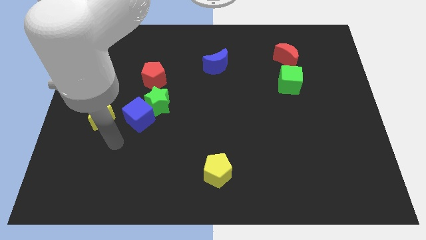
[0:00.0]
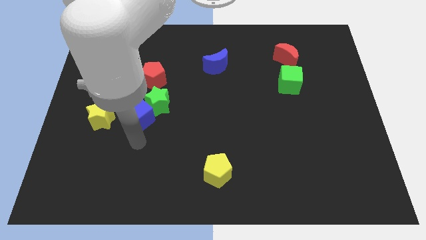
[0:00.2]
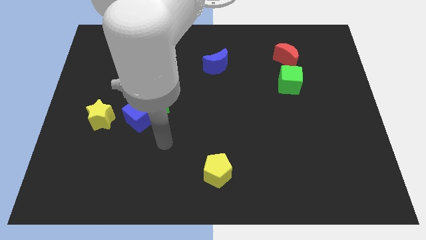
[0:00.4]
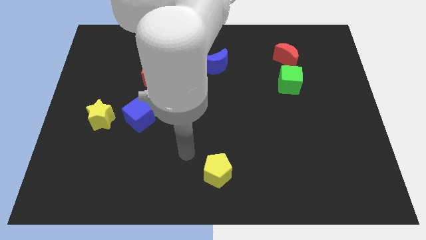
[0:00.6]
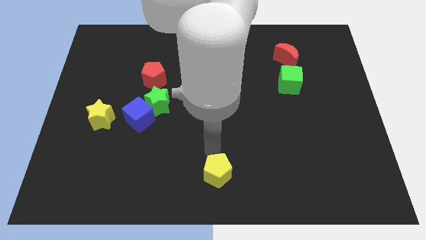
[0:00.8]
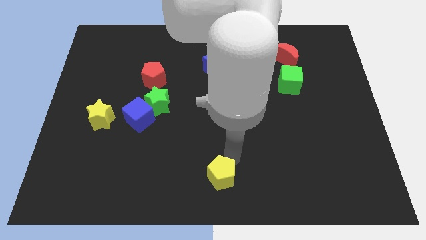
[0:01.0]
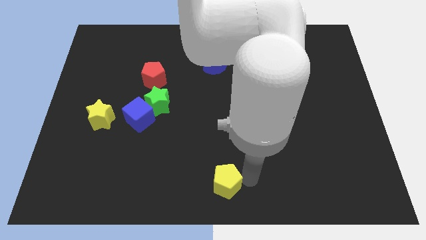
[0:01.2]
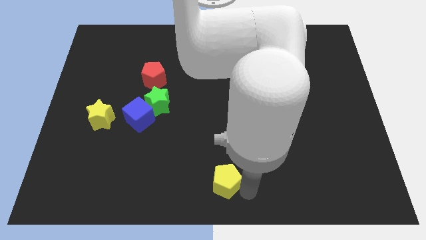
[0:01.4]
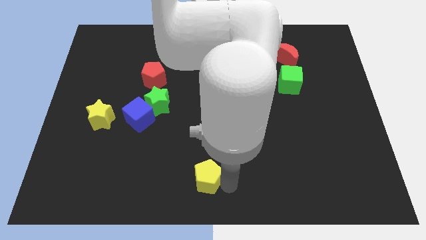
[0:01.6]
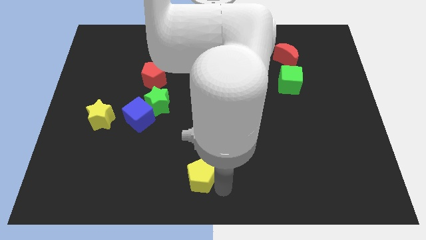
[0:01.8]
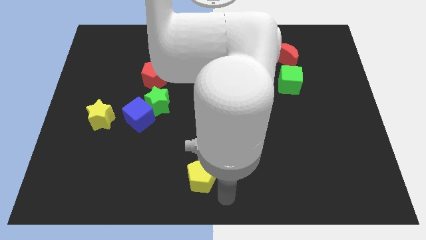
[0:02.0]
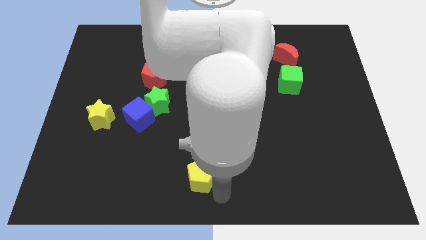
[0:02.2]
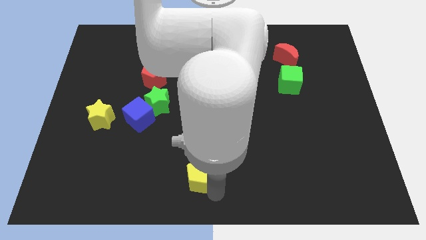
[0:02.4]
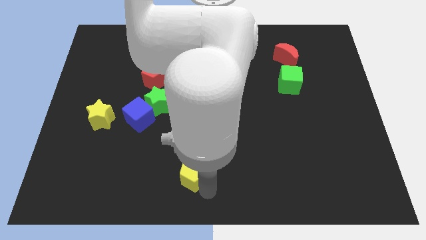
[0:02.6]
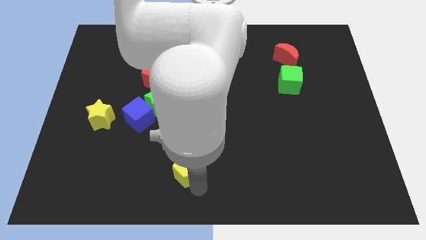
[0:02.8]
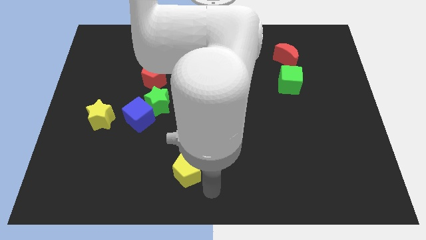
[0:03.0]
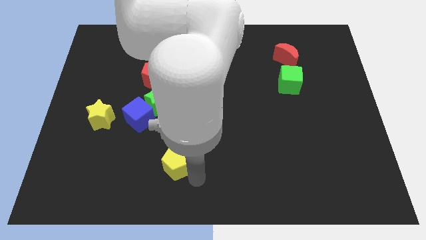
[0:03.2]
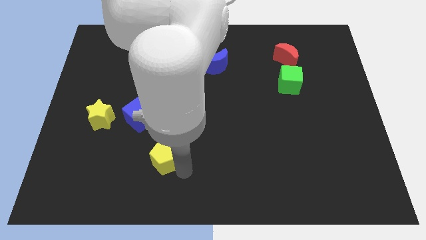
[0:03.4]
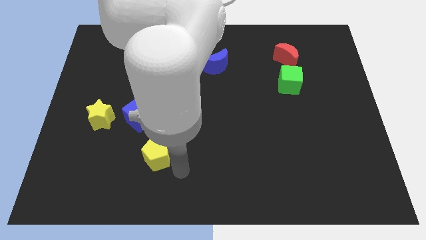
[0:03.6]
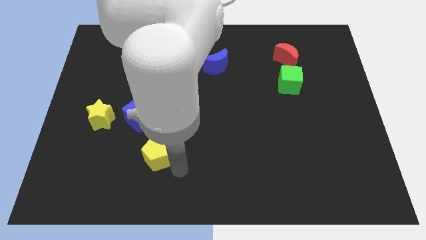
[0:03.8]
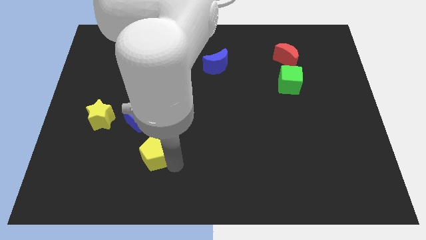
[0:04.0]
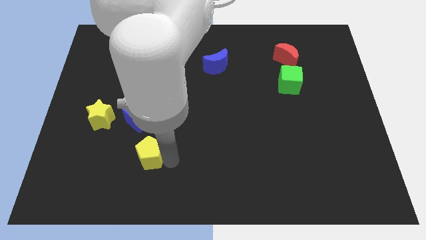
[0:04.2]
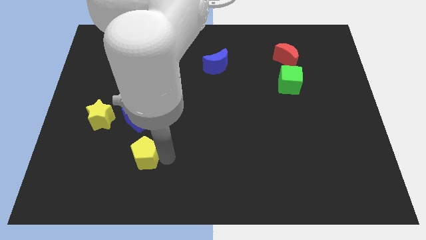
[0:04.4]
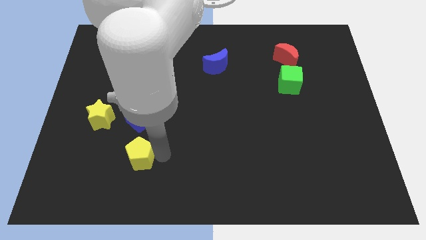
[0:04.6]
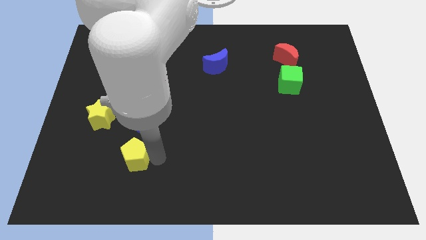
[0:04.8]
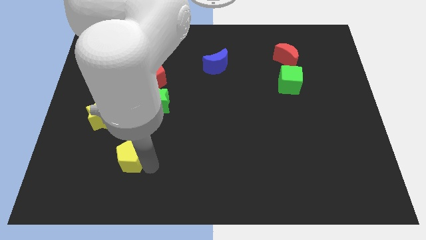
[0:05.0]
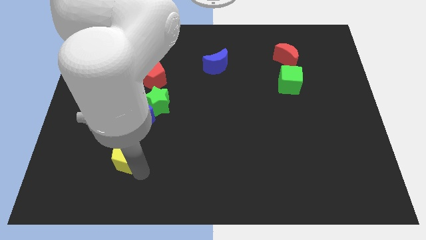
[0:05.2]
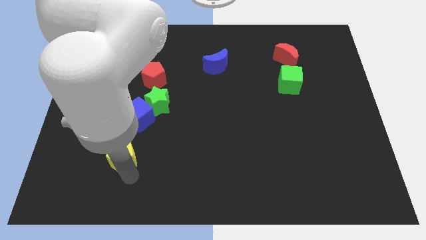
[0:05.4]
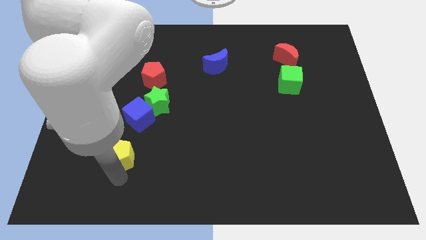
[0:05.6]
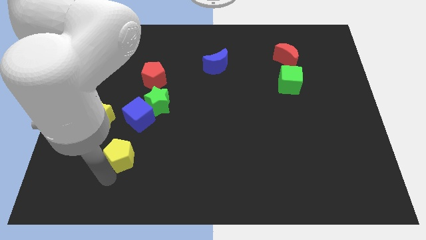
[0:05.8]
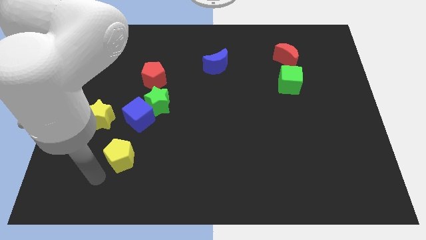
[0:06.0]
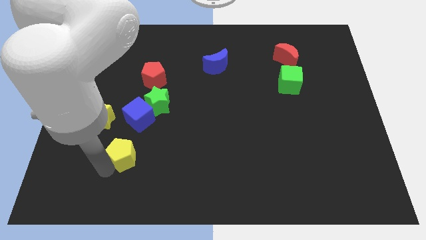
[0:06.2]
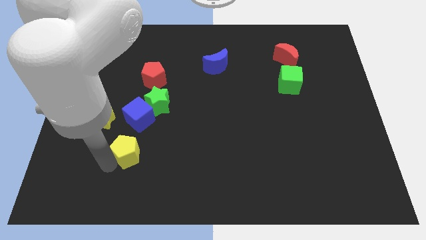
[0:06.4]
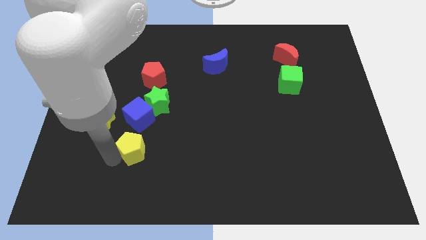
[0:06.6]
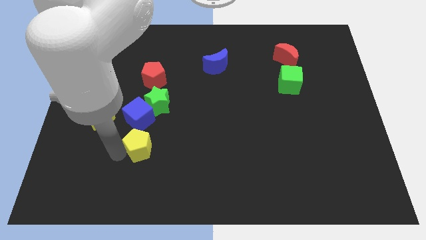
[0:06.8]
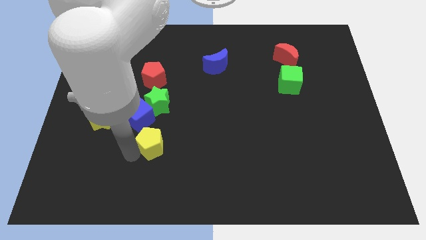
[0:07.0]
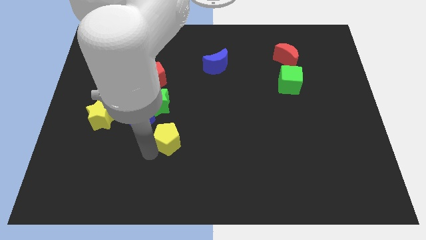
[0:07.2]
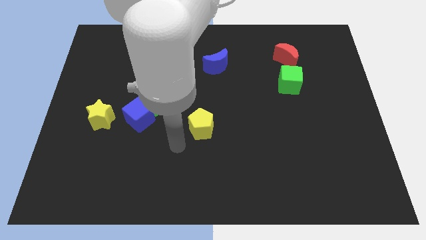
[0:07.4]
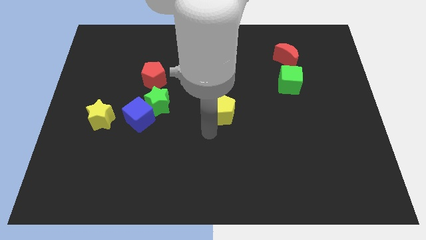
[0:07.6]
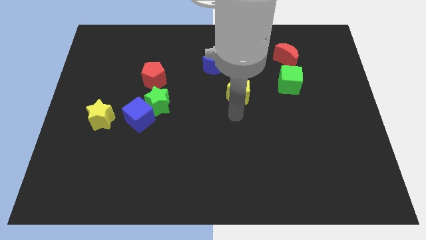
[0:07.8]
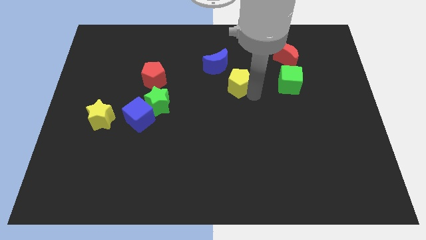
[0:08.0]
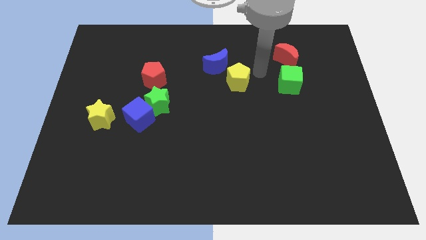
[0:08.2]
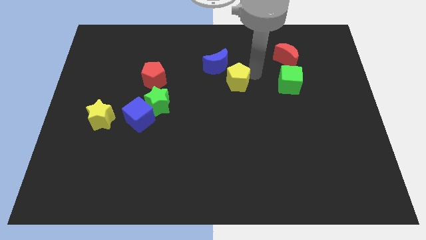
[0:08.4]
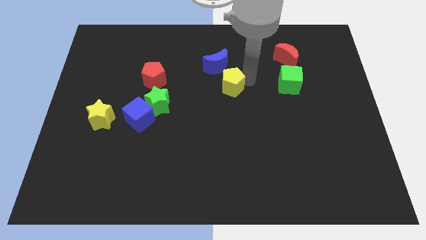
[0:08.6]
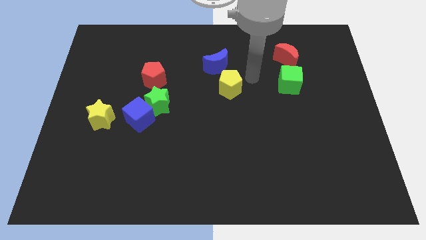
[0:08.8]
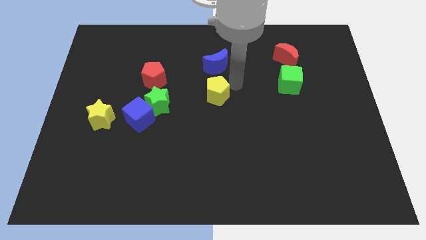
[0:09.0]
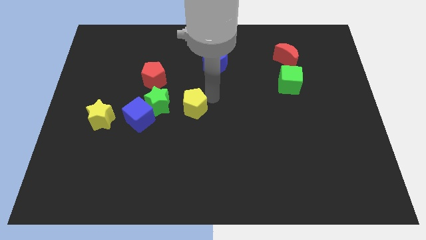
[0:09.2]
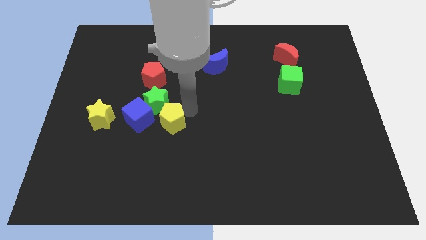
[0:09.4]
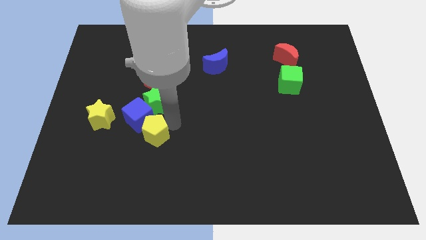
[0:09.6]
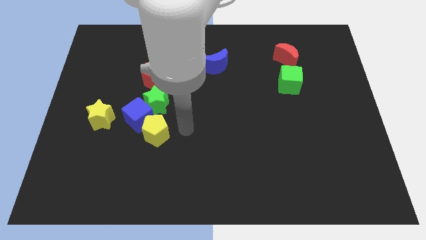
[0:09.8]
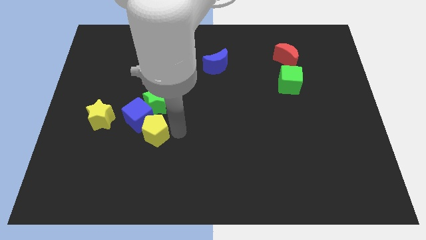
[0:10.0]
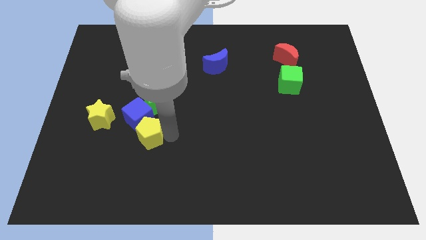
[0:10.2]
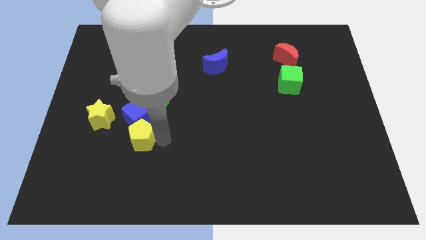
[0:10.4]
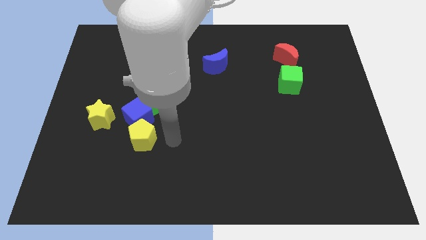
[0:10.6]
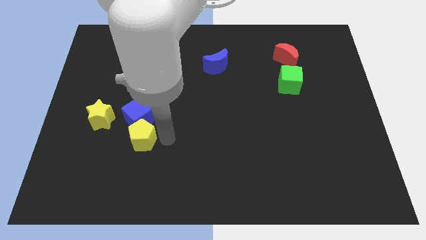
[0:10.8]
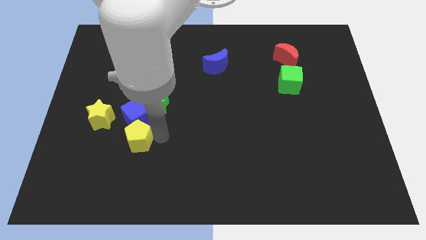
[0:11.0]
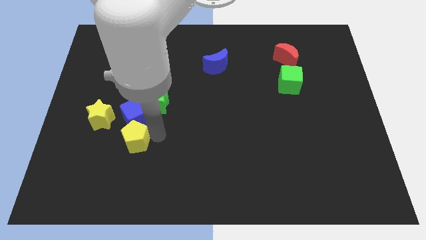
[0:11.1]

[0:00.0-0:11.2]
slide the yellow pentagon to the bottom left side of the blue cube

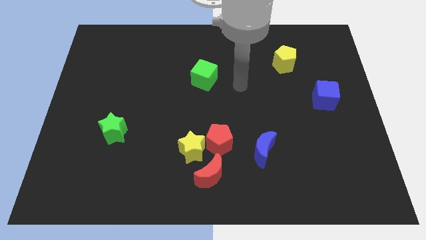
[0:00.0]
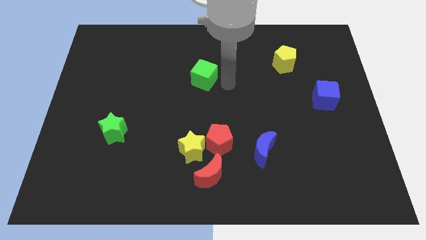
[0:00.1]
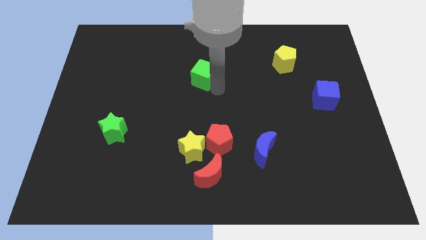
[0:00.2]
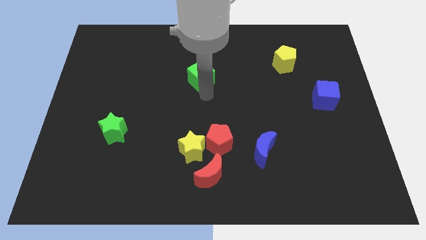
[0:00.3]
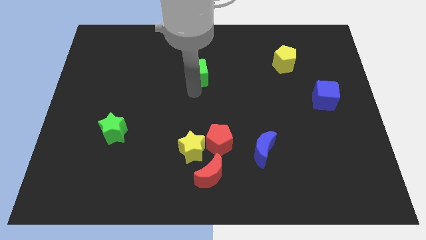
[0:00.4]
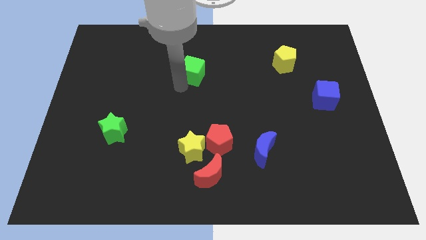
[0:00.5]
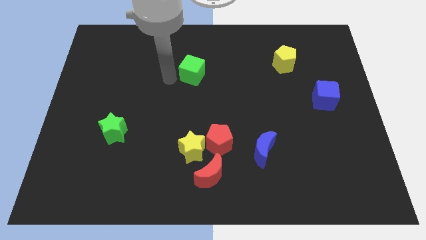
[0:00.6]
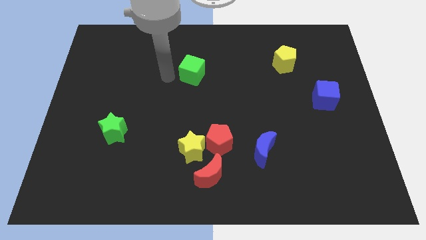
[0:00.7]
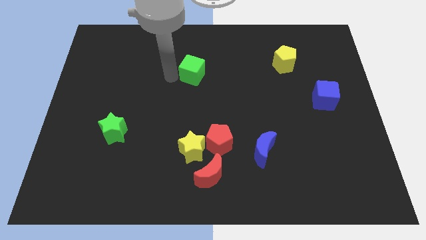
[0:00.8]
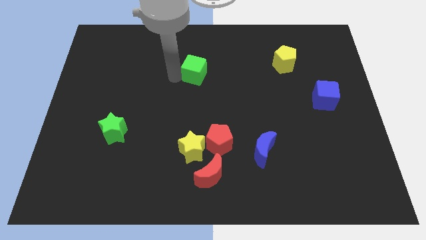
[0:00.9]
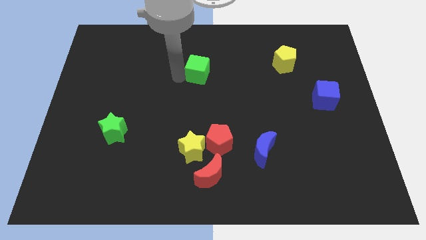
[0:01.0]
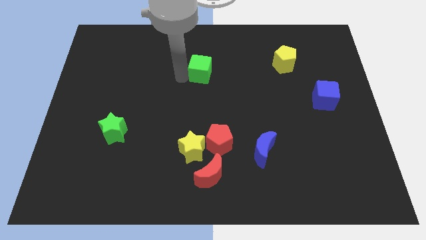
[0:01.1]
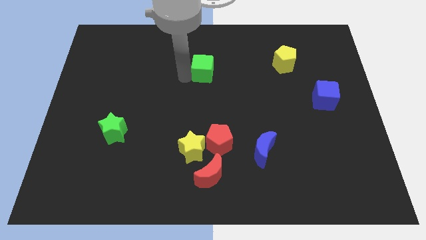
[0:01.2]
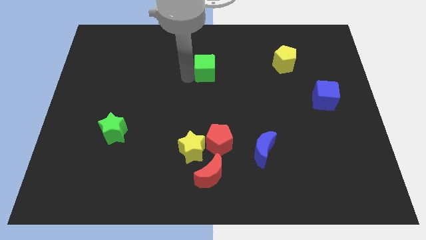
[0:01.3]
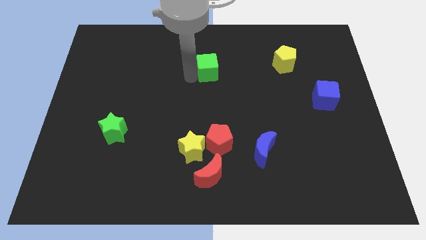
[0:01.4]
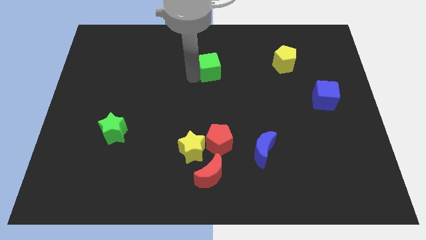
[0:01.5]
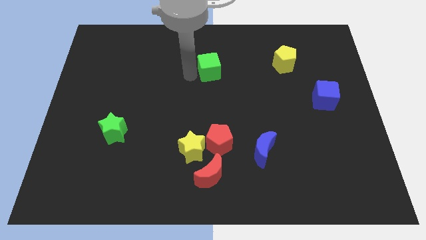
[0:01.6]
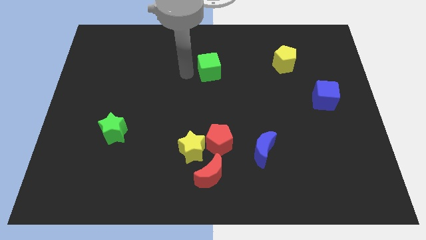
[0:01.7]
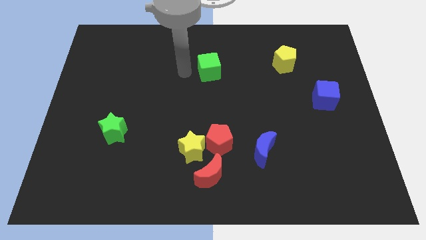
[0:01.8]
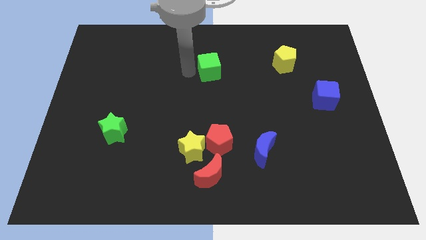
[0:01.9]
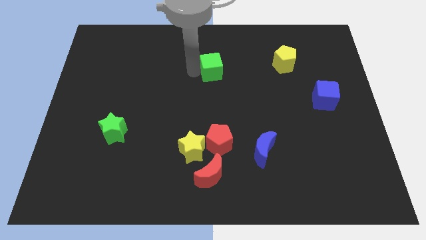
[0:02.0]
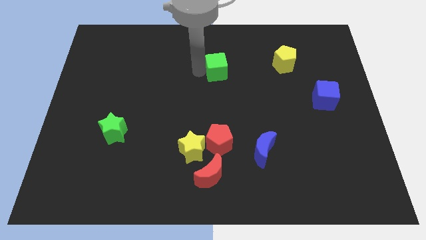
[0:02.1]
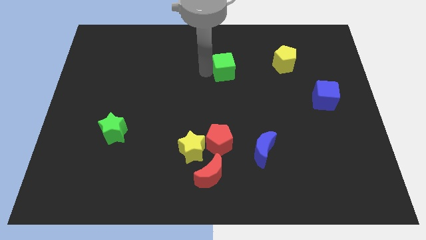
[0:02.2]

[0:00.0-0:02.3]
push the green cube left of the yellow pentagon
